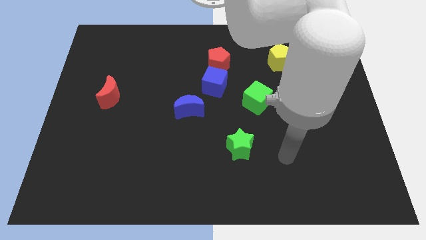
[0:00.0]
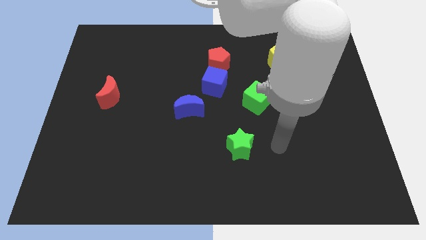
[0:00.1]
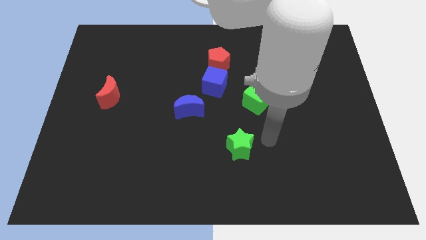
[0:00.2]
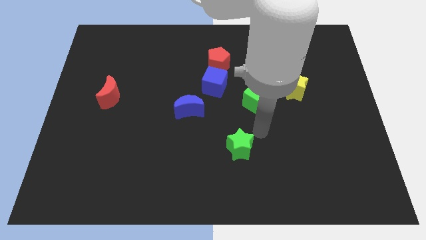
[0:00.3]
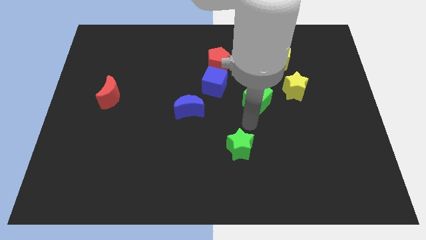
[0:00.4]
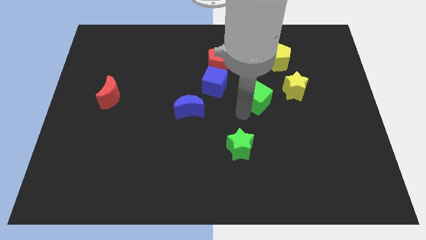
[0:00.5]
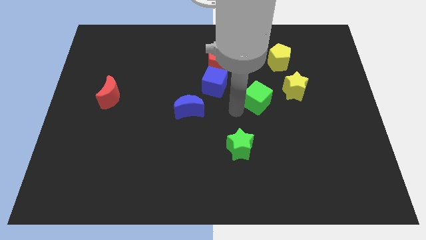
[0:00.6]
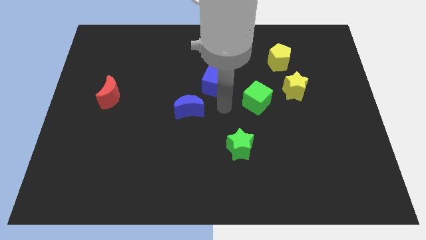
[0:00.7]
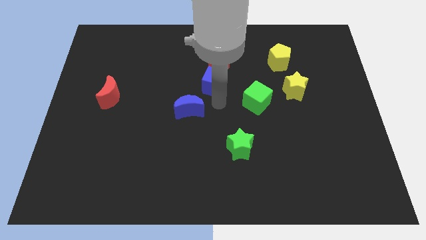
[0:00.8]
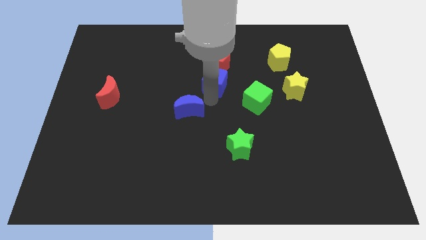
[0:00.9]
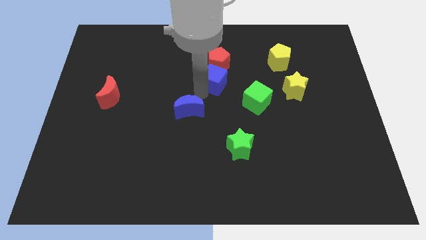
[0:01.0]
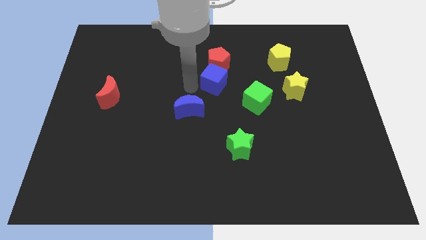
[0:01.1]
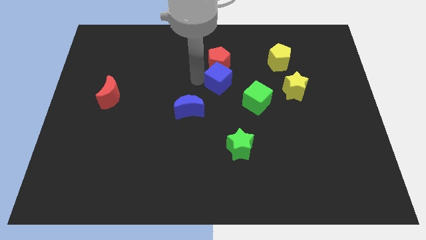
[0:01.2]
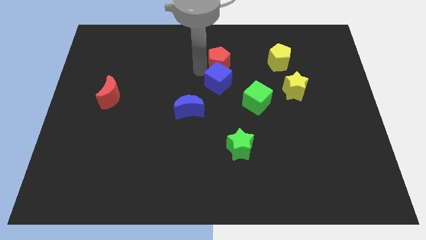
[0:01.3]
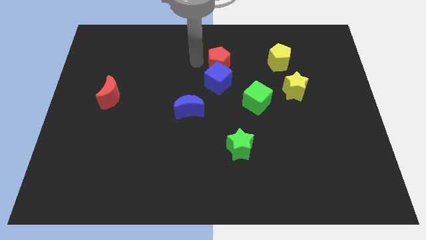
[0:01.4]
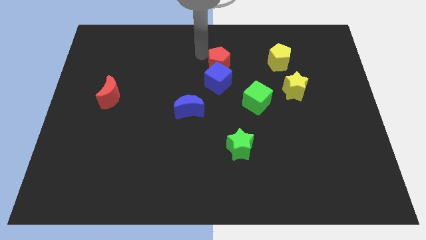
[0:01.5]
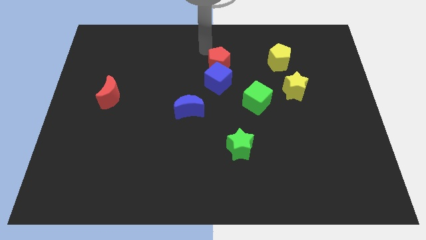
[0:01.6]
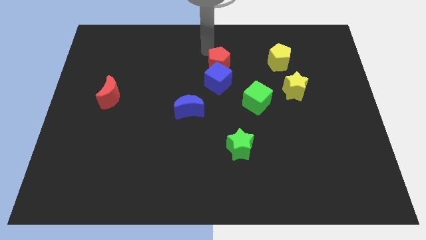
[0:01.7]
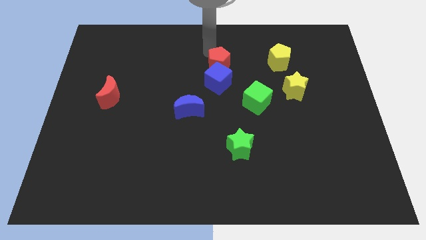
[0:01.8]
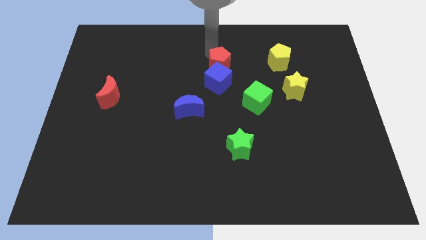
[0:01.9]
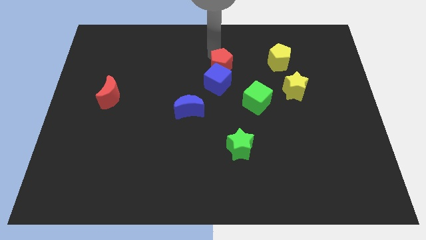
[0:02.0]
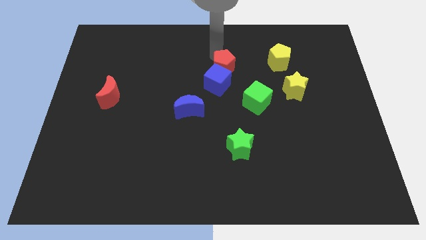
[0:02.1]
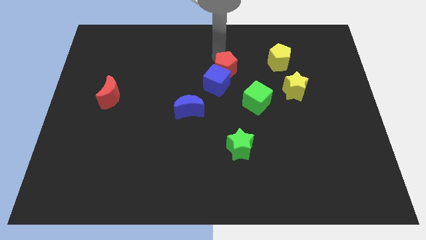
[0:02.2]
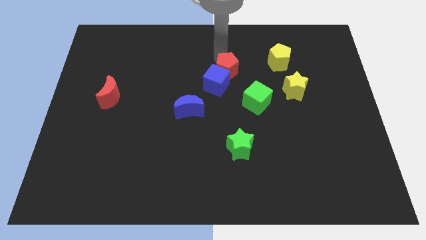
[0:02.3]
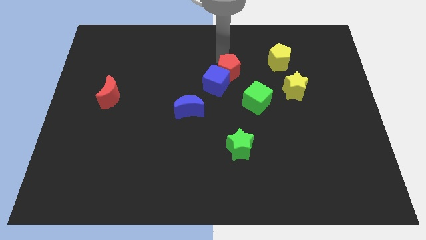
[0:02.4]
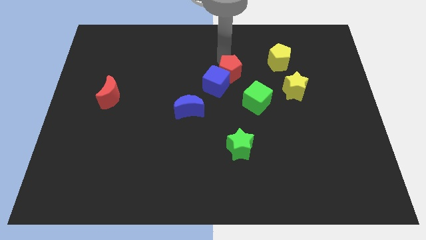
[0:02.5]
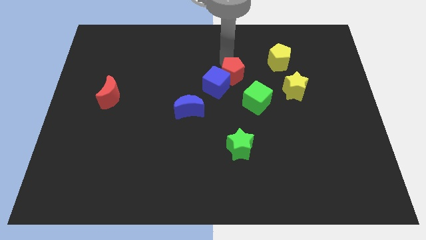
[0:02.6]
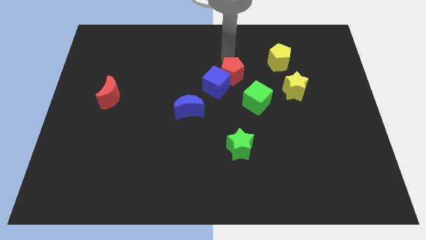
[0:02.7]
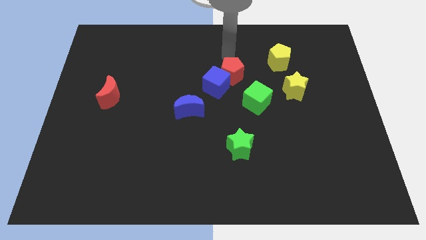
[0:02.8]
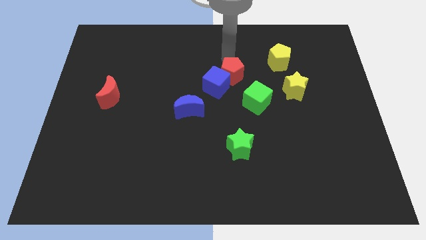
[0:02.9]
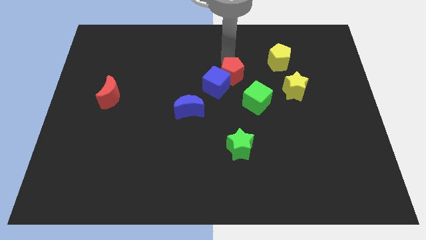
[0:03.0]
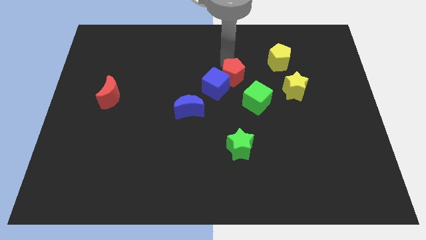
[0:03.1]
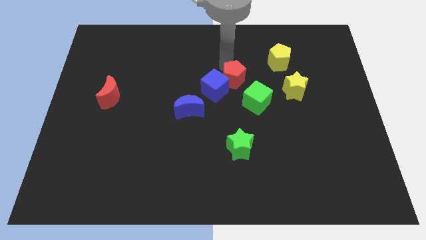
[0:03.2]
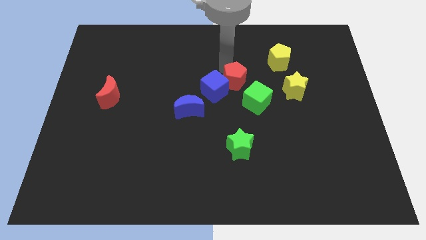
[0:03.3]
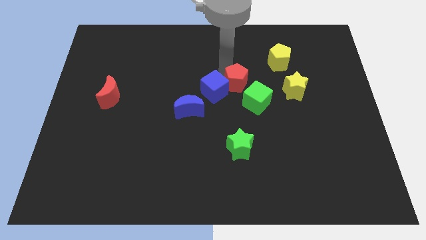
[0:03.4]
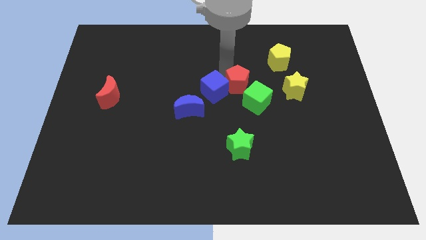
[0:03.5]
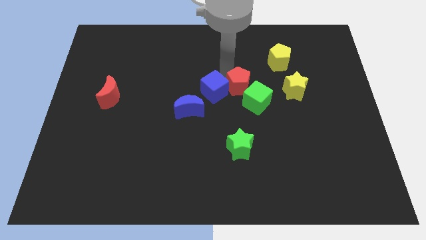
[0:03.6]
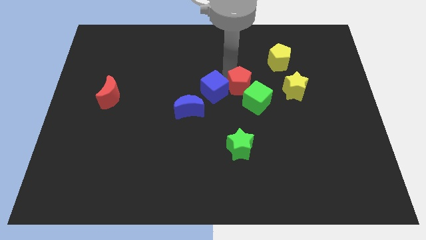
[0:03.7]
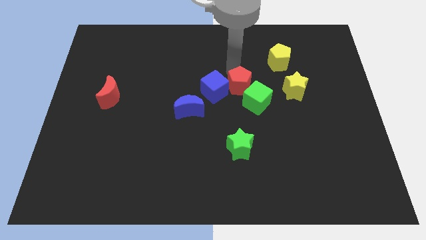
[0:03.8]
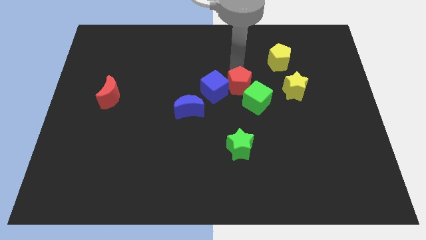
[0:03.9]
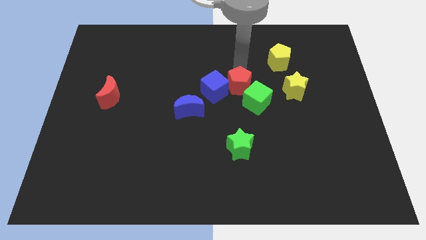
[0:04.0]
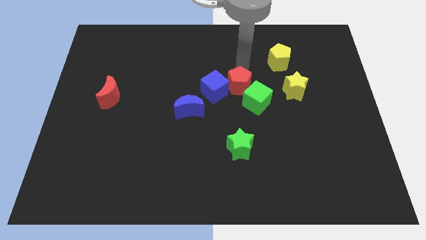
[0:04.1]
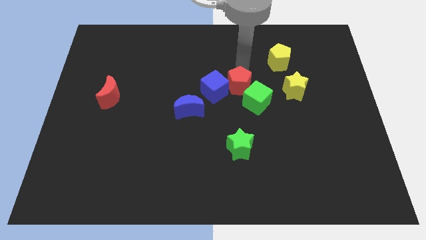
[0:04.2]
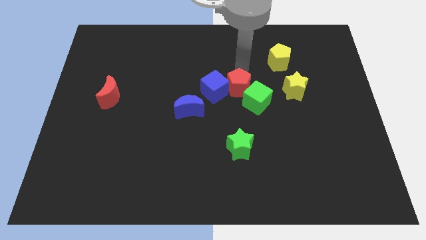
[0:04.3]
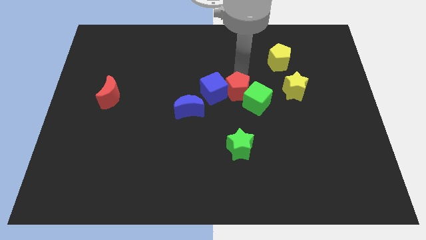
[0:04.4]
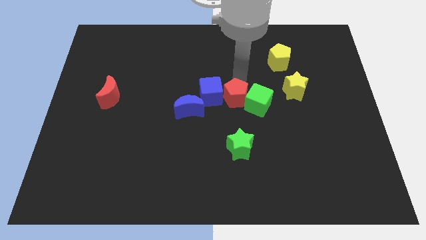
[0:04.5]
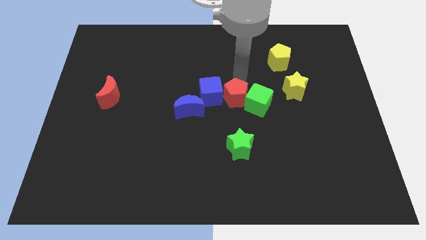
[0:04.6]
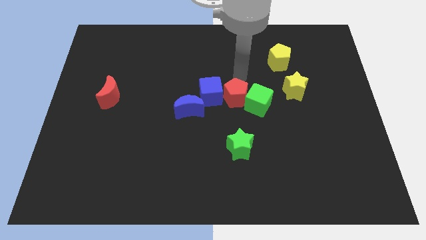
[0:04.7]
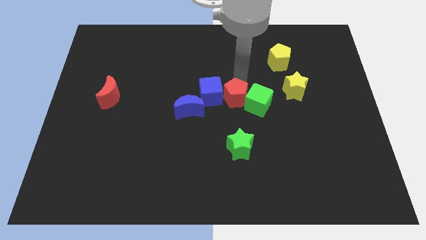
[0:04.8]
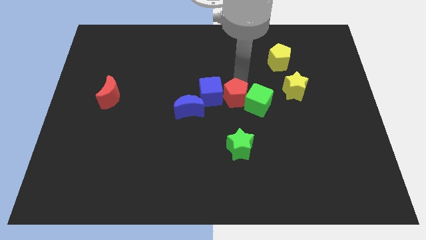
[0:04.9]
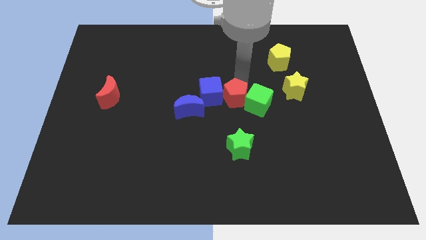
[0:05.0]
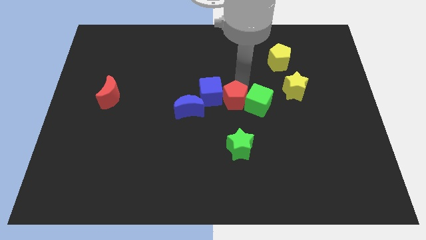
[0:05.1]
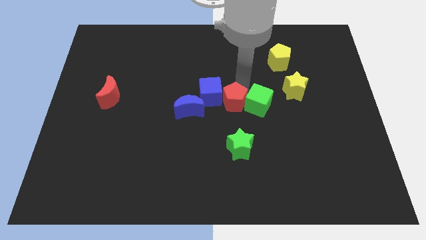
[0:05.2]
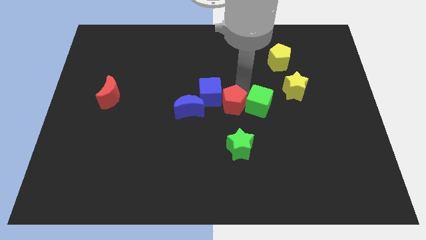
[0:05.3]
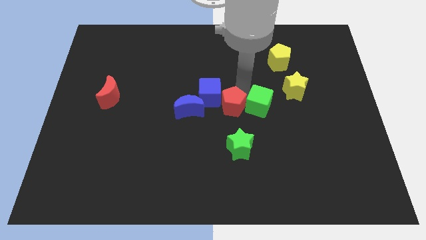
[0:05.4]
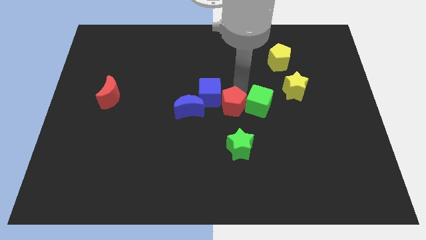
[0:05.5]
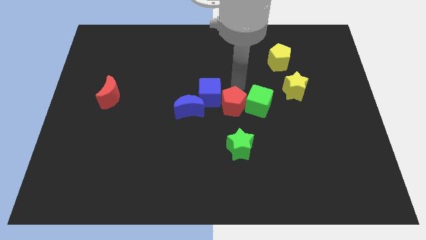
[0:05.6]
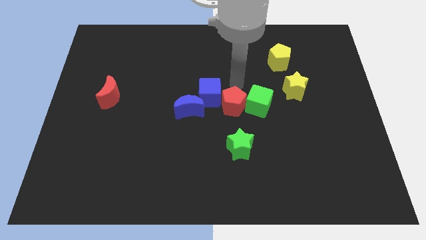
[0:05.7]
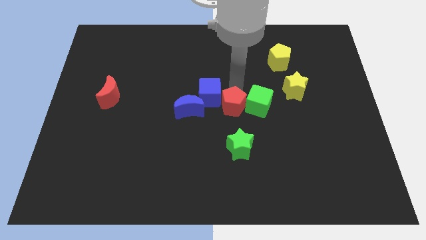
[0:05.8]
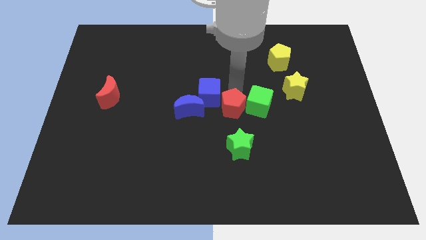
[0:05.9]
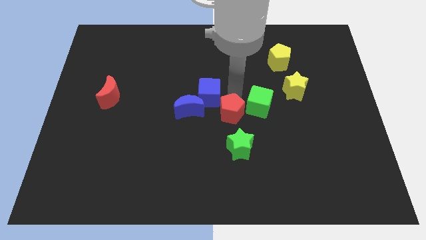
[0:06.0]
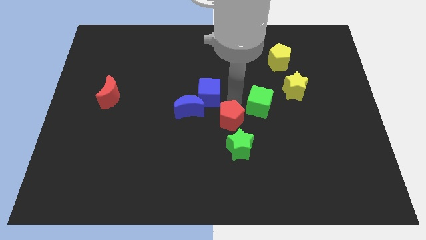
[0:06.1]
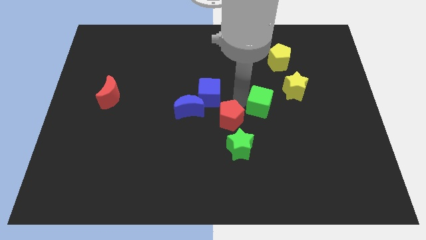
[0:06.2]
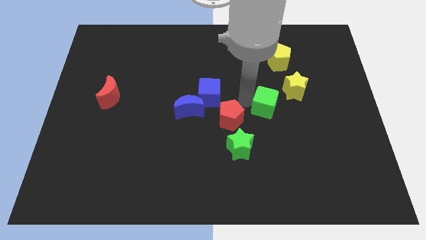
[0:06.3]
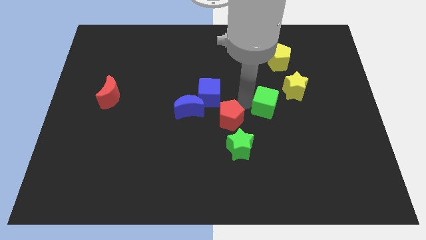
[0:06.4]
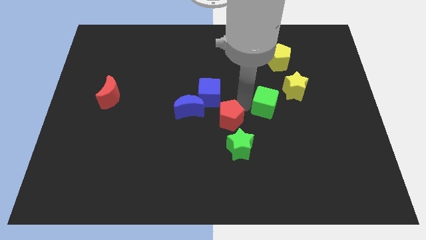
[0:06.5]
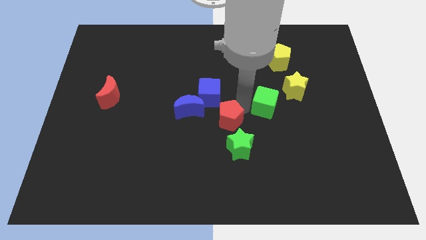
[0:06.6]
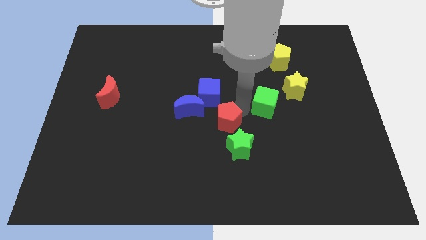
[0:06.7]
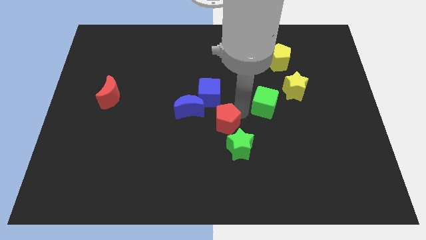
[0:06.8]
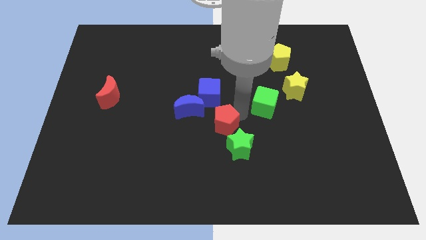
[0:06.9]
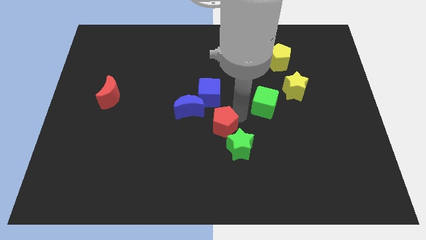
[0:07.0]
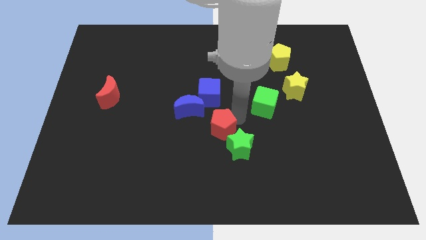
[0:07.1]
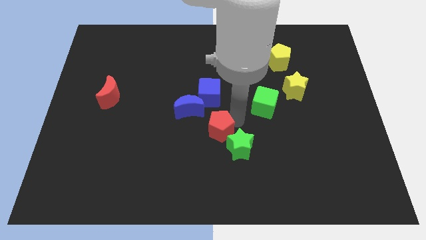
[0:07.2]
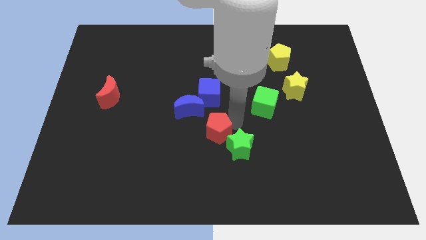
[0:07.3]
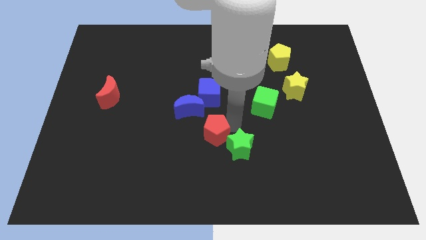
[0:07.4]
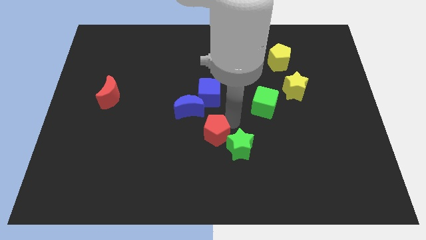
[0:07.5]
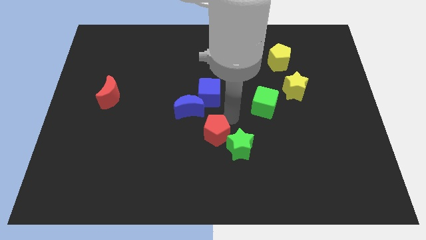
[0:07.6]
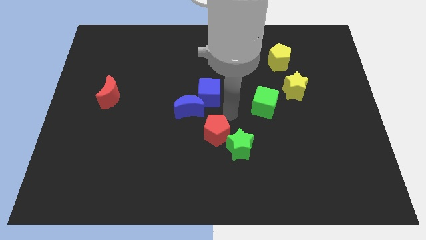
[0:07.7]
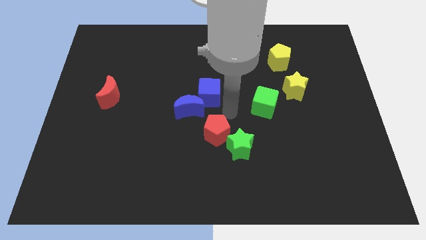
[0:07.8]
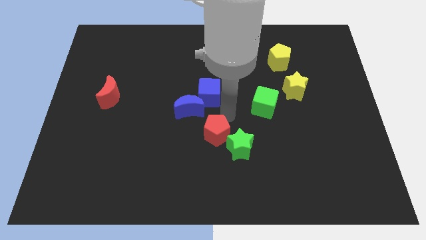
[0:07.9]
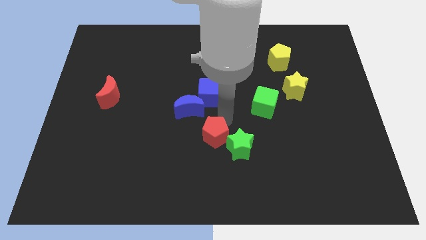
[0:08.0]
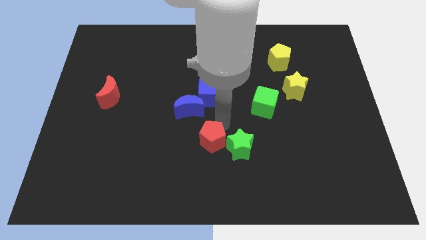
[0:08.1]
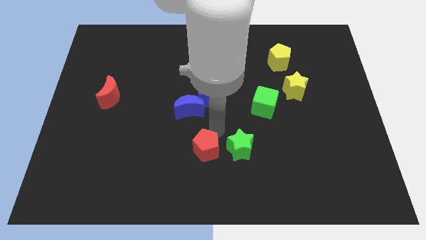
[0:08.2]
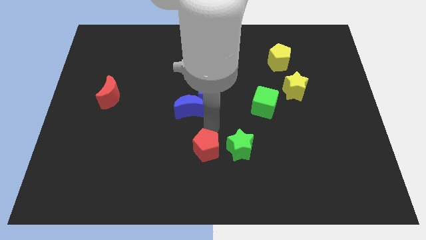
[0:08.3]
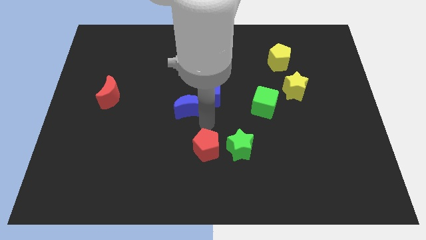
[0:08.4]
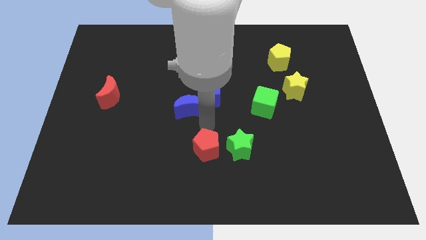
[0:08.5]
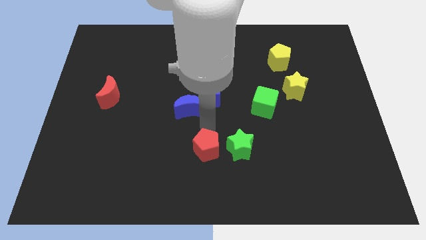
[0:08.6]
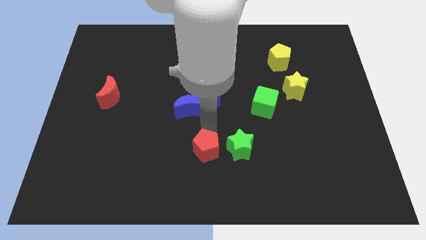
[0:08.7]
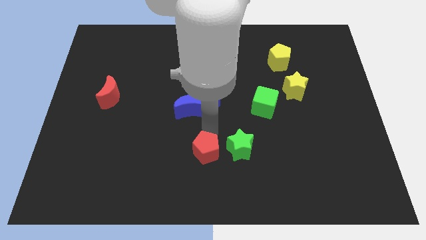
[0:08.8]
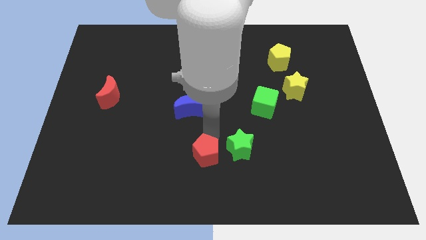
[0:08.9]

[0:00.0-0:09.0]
slide the red pentagon to the bottom side
